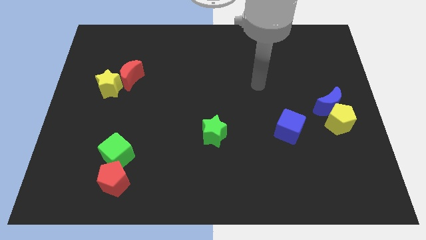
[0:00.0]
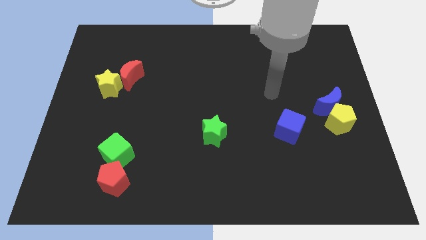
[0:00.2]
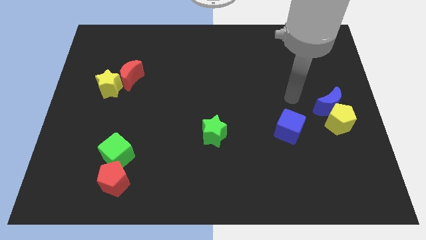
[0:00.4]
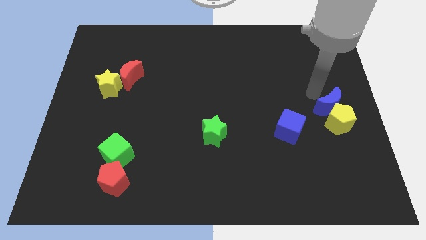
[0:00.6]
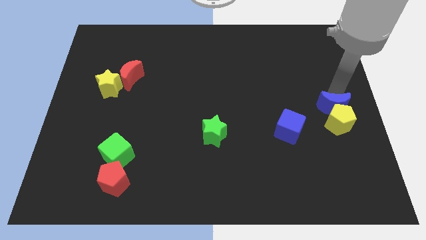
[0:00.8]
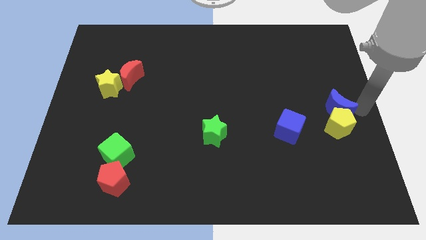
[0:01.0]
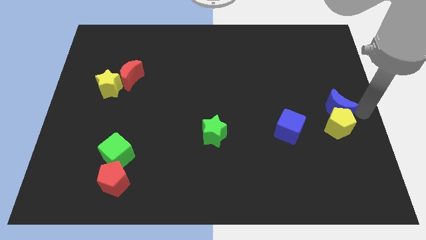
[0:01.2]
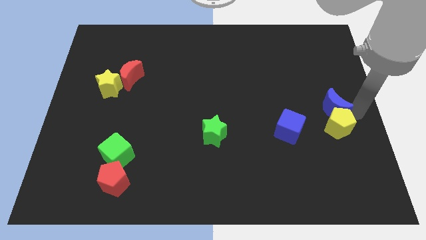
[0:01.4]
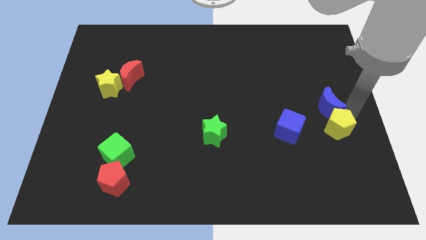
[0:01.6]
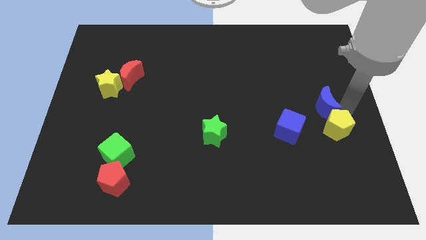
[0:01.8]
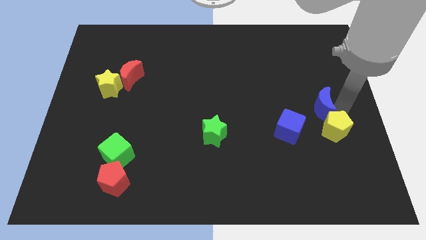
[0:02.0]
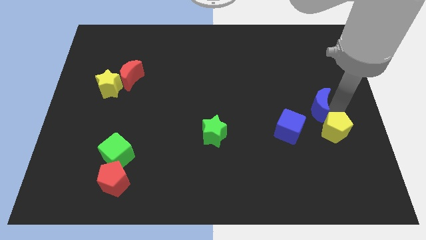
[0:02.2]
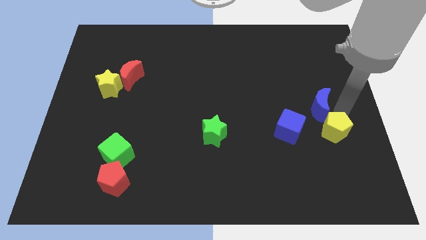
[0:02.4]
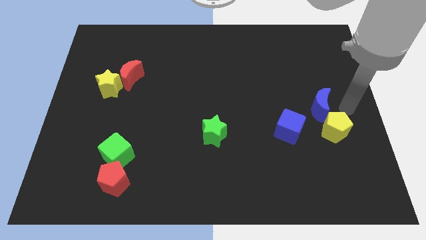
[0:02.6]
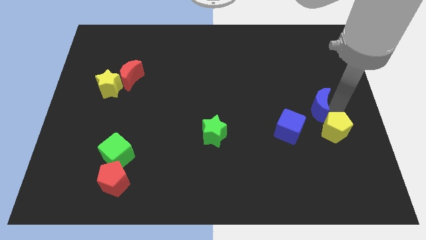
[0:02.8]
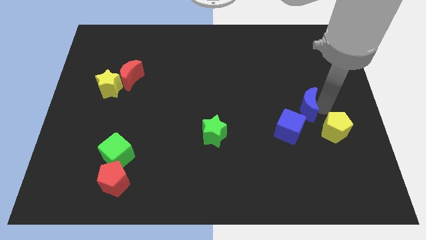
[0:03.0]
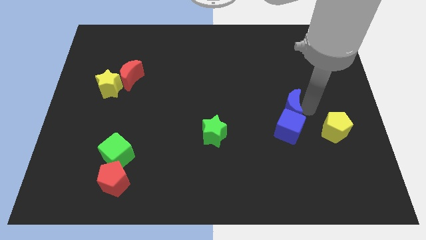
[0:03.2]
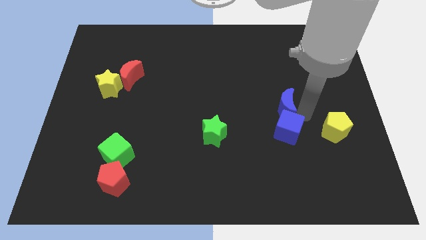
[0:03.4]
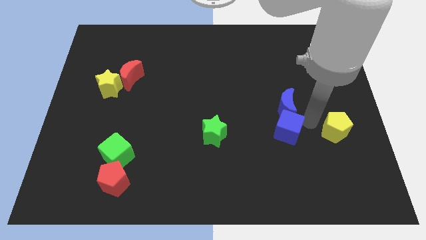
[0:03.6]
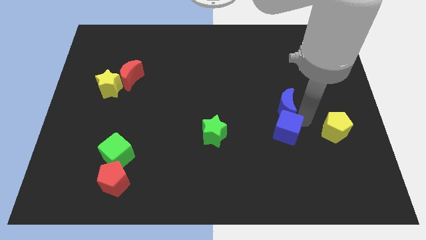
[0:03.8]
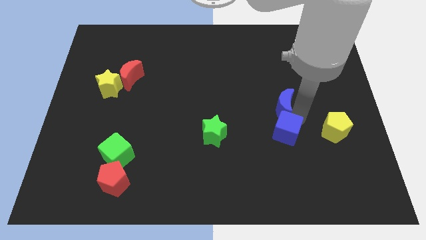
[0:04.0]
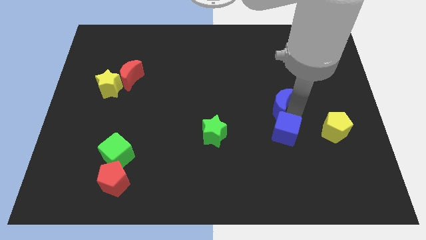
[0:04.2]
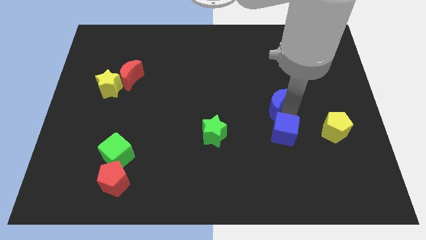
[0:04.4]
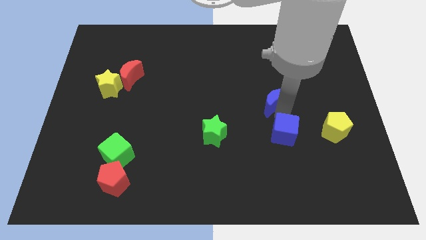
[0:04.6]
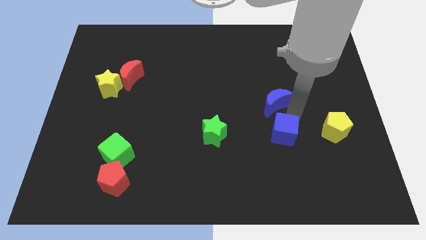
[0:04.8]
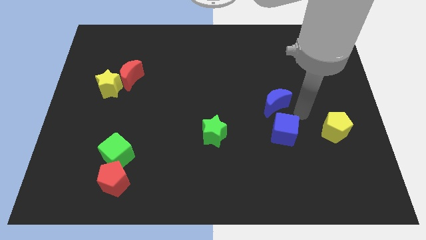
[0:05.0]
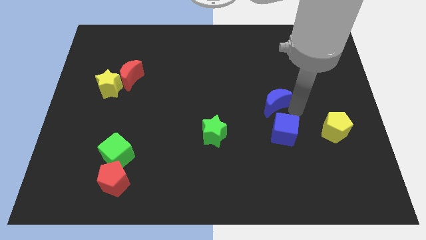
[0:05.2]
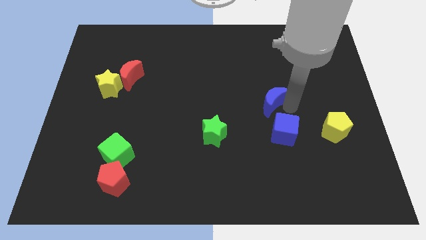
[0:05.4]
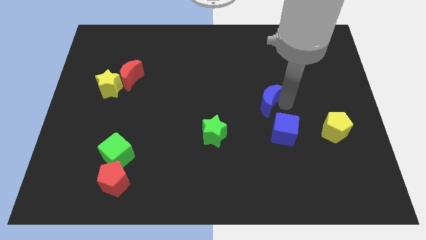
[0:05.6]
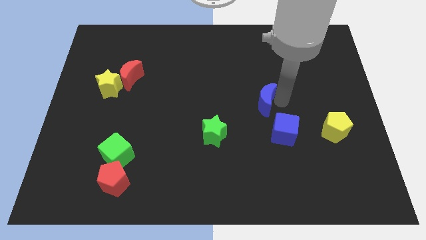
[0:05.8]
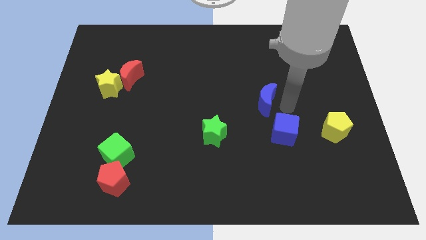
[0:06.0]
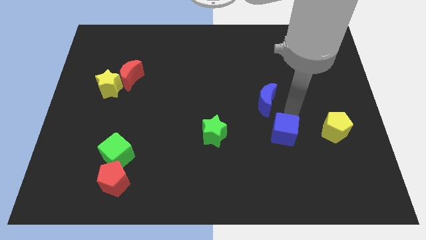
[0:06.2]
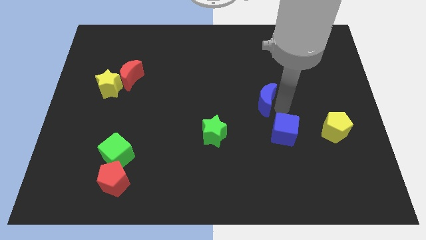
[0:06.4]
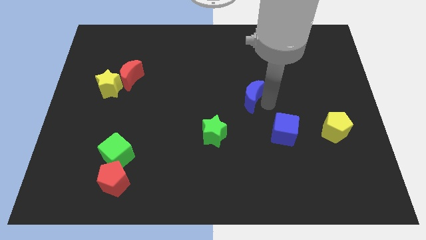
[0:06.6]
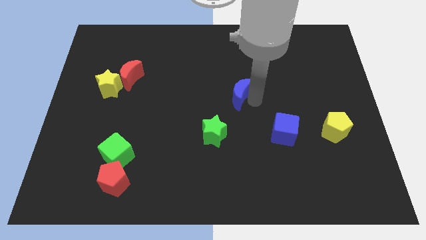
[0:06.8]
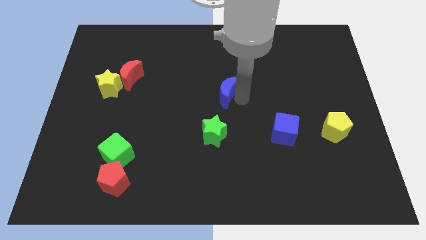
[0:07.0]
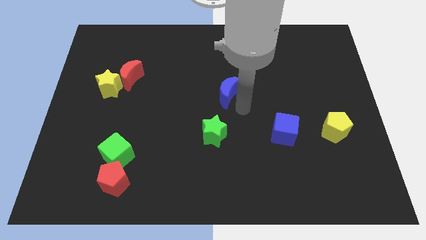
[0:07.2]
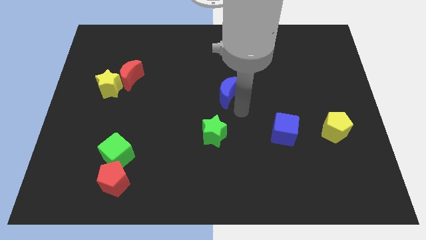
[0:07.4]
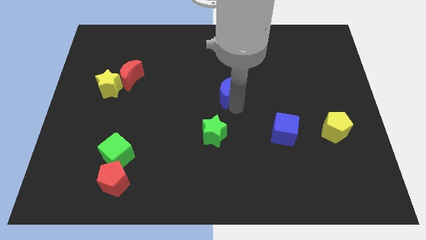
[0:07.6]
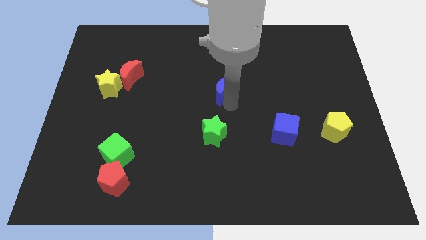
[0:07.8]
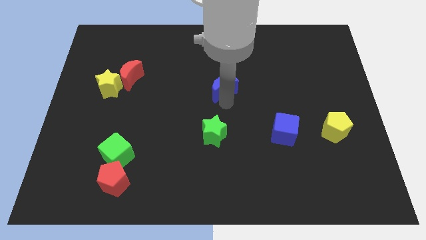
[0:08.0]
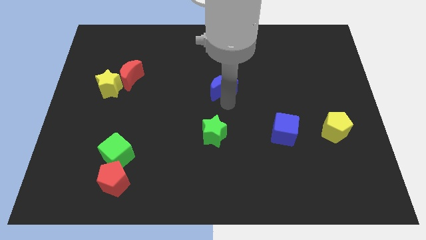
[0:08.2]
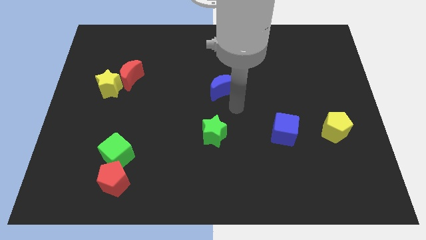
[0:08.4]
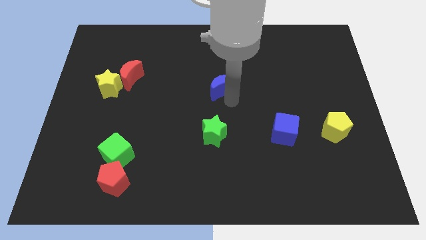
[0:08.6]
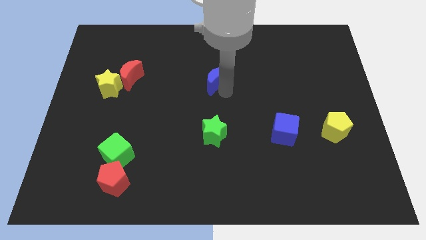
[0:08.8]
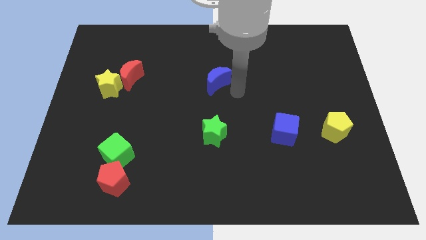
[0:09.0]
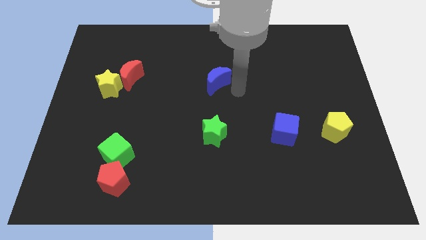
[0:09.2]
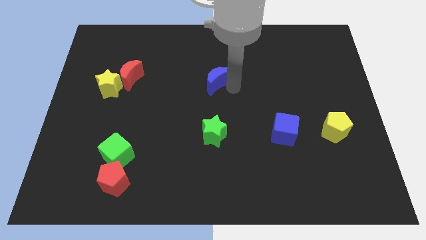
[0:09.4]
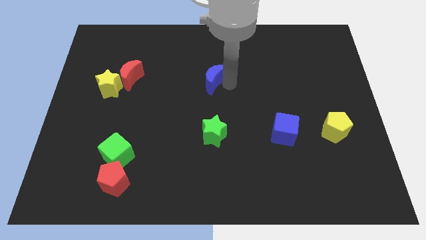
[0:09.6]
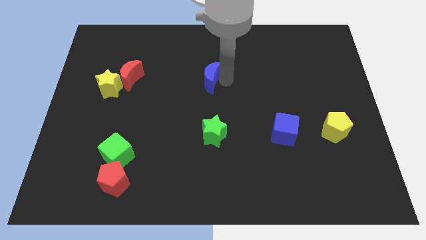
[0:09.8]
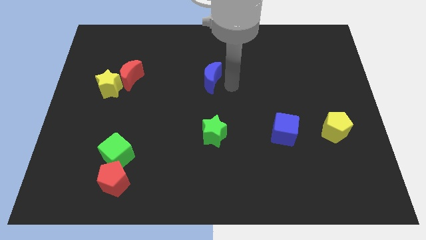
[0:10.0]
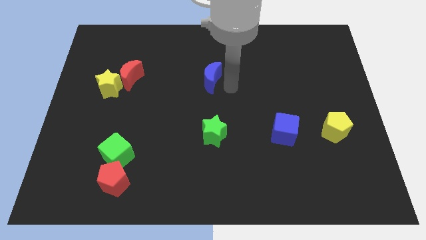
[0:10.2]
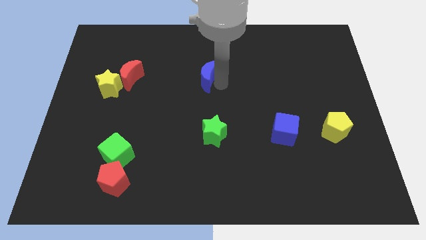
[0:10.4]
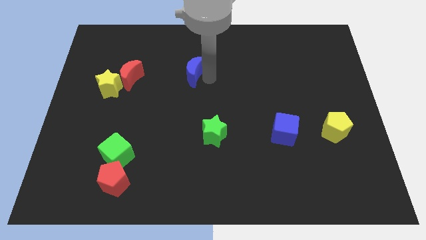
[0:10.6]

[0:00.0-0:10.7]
put the blue moon right of the red moon

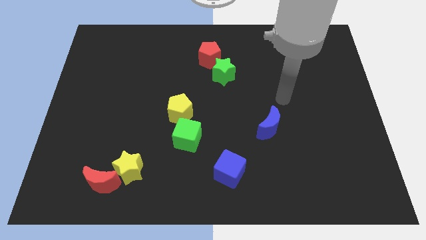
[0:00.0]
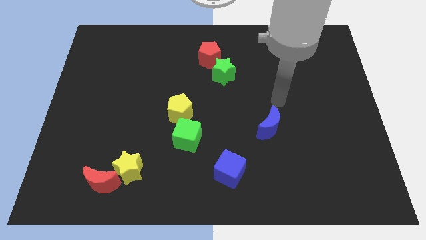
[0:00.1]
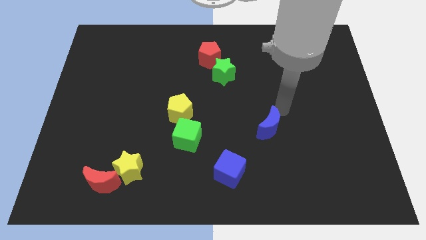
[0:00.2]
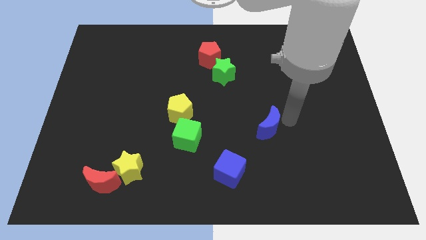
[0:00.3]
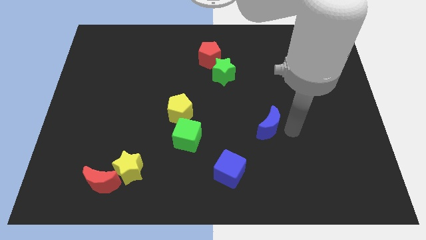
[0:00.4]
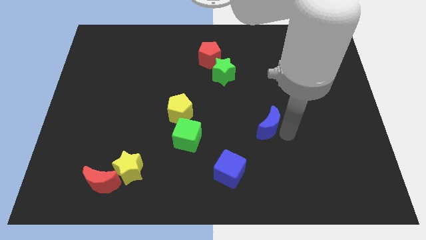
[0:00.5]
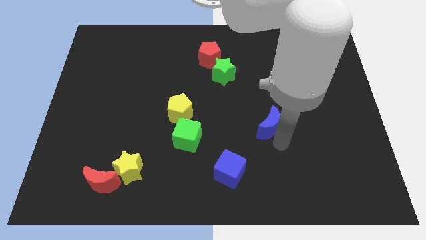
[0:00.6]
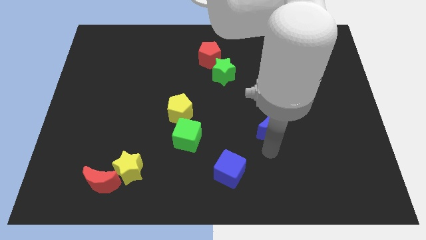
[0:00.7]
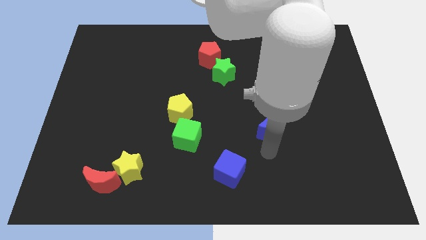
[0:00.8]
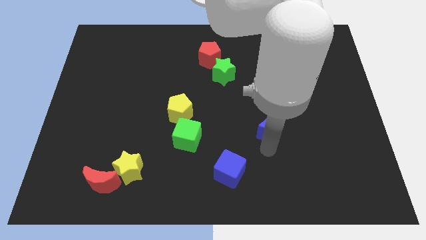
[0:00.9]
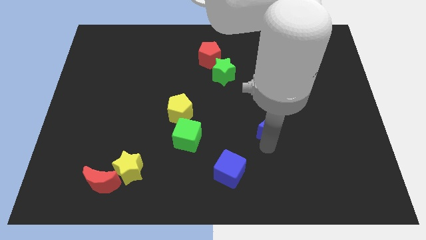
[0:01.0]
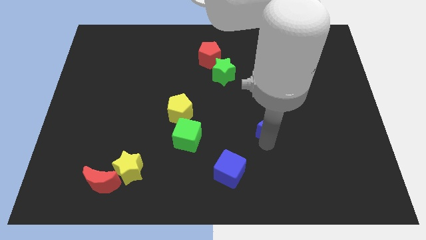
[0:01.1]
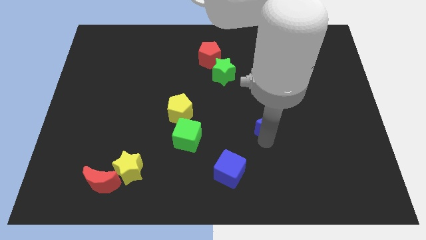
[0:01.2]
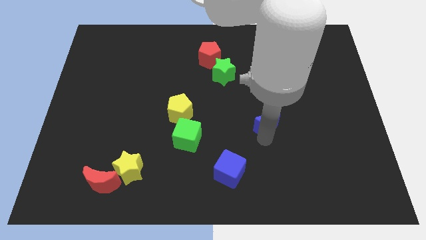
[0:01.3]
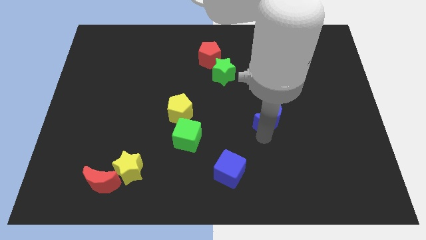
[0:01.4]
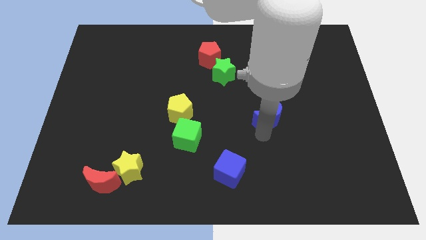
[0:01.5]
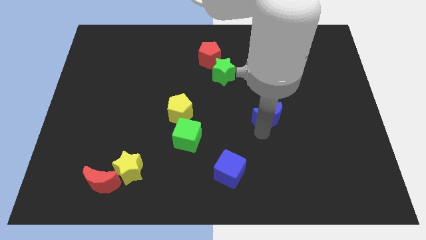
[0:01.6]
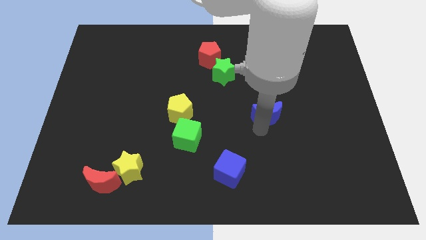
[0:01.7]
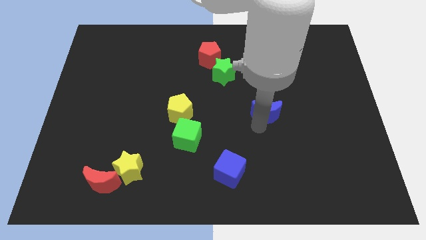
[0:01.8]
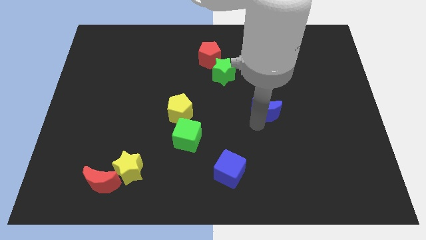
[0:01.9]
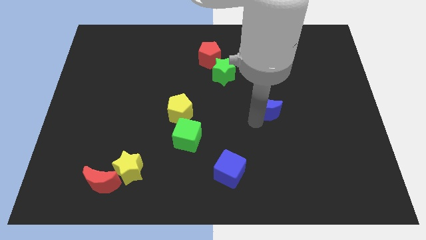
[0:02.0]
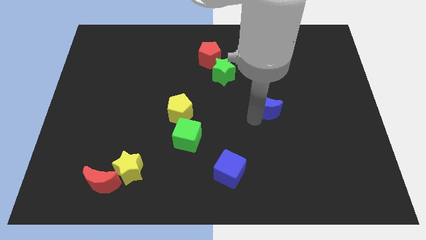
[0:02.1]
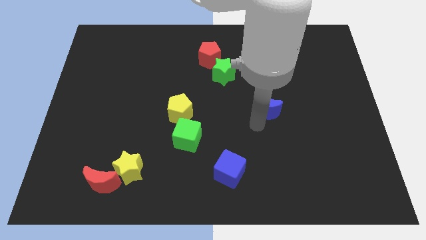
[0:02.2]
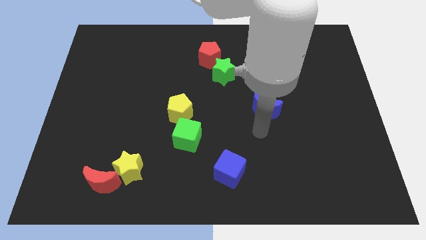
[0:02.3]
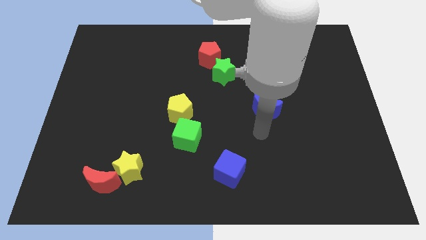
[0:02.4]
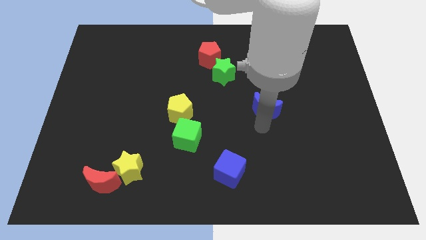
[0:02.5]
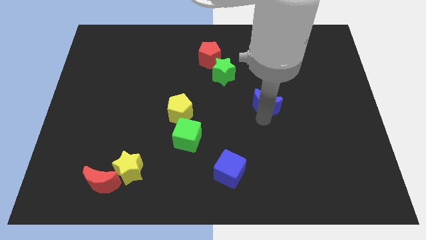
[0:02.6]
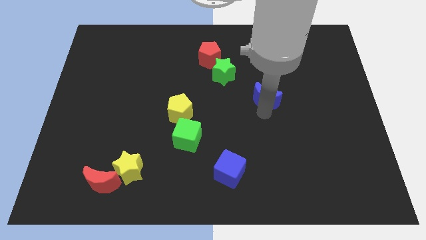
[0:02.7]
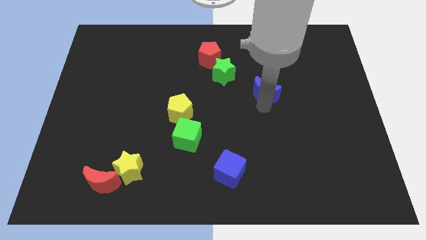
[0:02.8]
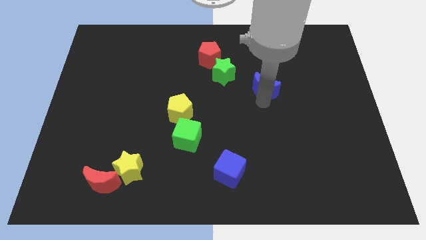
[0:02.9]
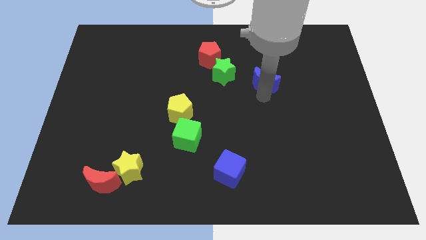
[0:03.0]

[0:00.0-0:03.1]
push the blue moon right of the green star
